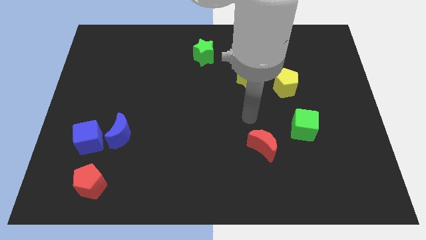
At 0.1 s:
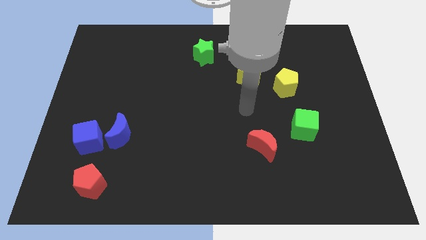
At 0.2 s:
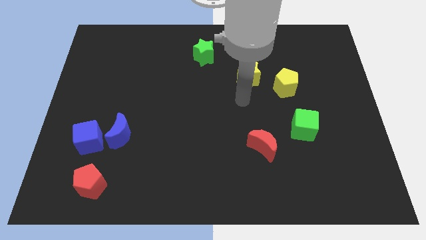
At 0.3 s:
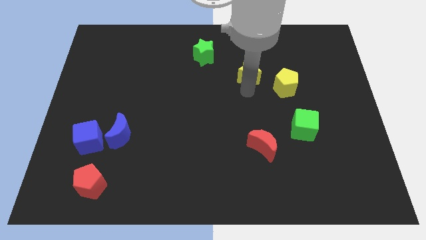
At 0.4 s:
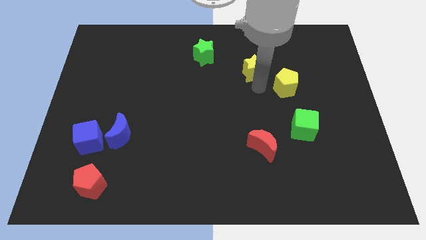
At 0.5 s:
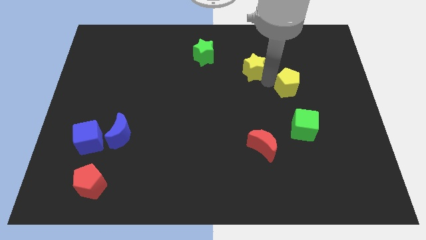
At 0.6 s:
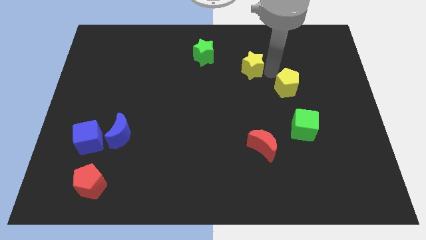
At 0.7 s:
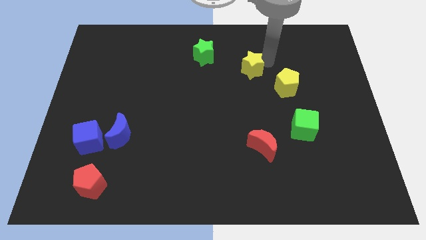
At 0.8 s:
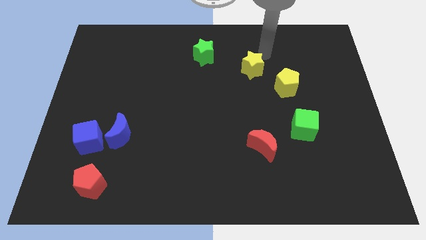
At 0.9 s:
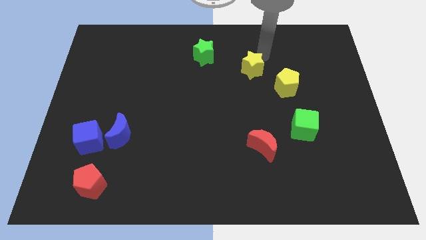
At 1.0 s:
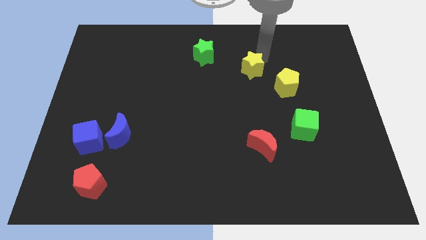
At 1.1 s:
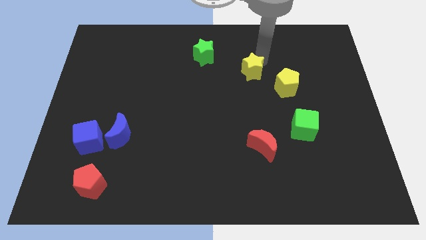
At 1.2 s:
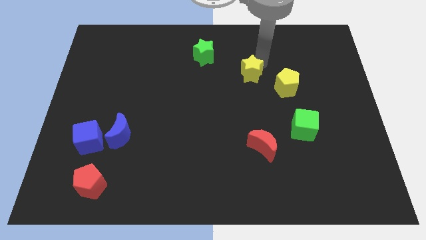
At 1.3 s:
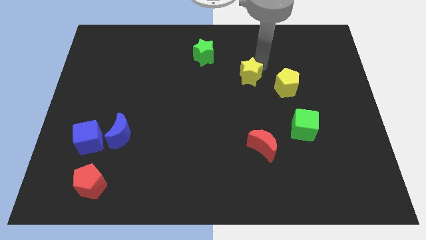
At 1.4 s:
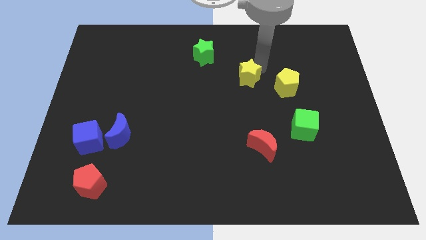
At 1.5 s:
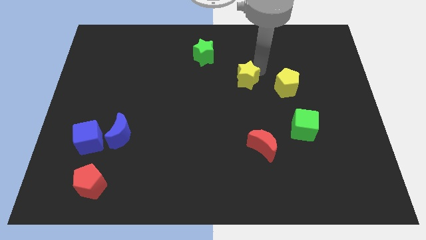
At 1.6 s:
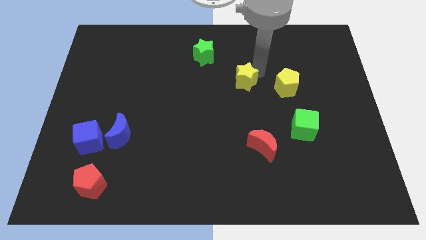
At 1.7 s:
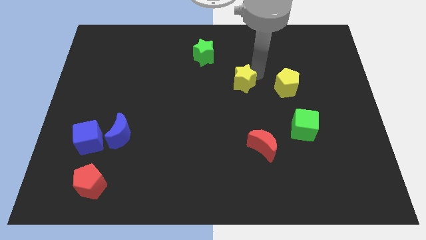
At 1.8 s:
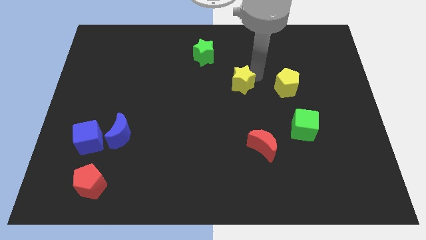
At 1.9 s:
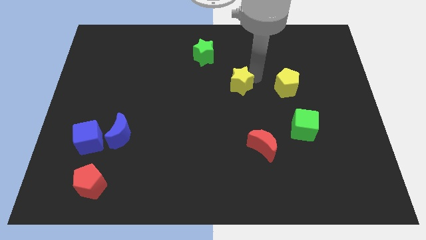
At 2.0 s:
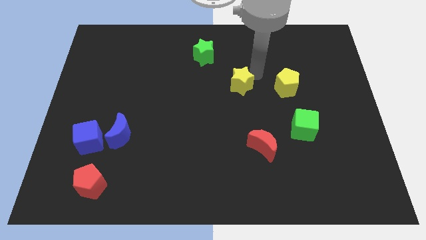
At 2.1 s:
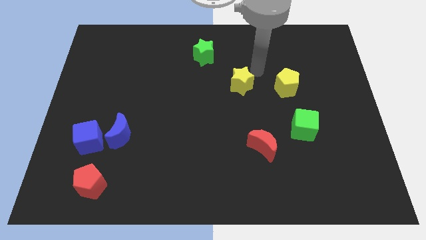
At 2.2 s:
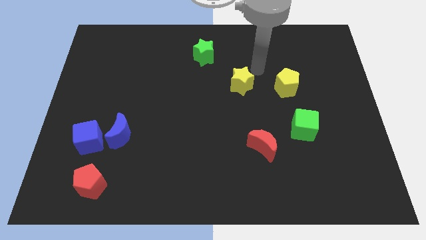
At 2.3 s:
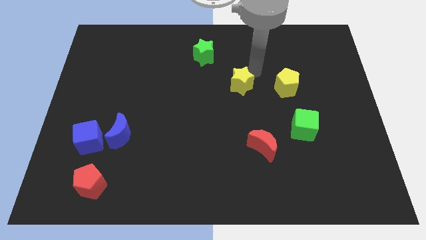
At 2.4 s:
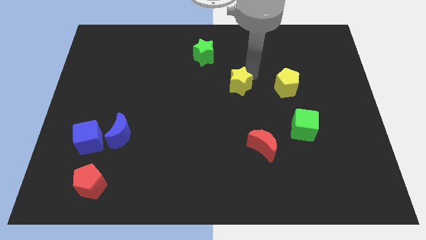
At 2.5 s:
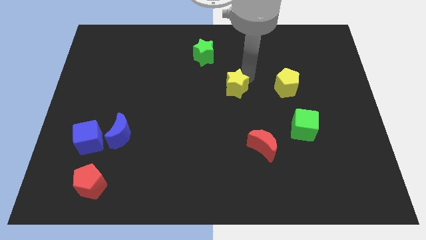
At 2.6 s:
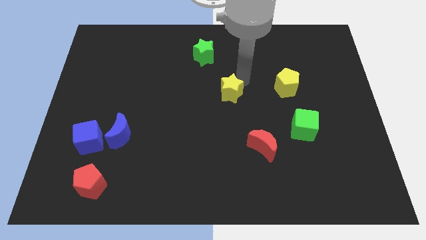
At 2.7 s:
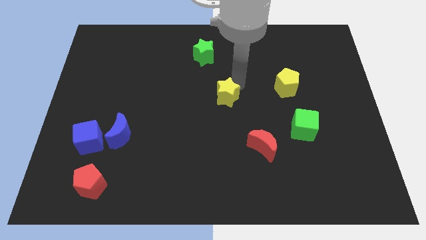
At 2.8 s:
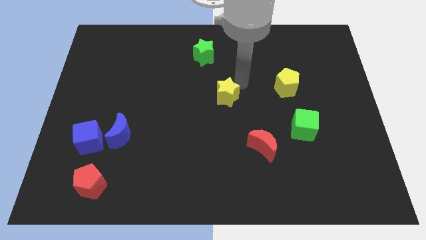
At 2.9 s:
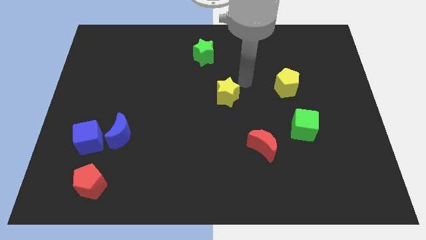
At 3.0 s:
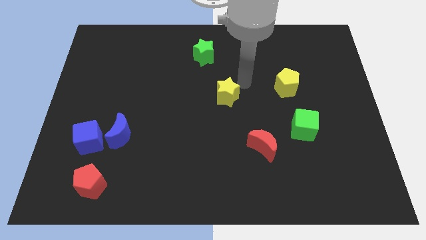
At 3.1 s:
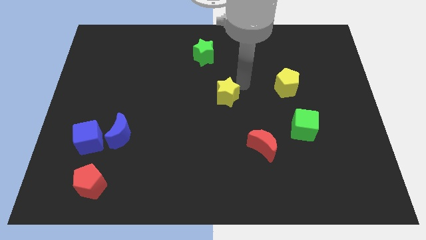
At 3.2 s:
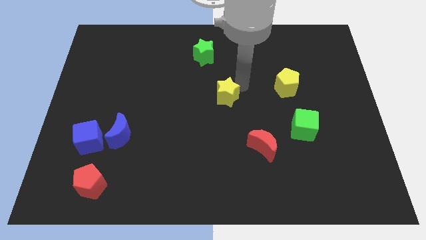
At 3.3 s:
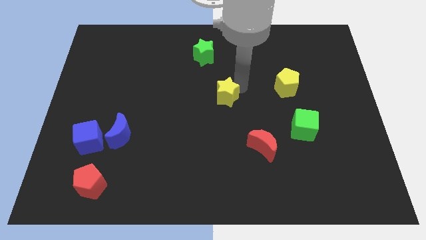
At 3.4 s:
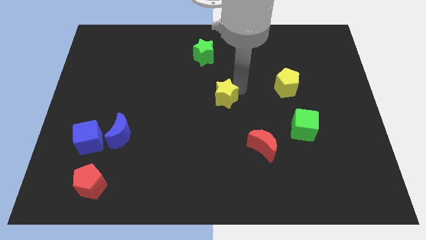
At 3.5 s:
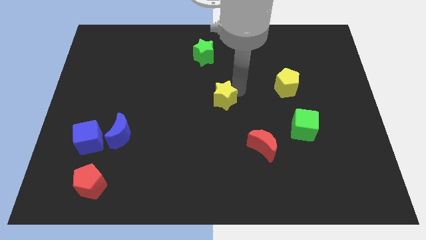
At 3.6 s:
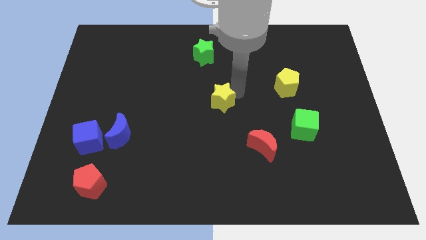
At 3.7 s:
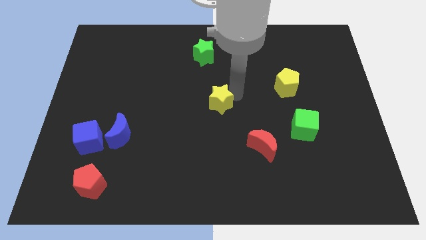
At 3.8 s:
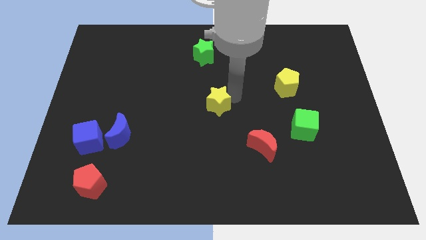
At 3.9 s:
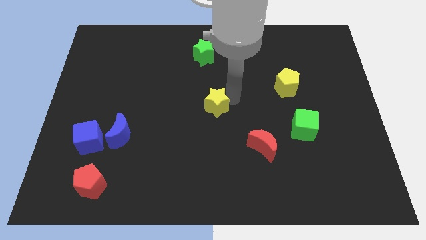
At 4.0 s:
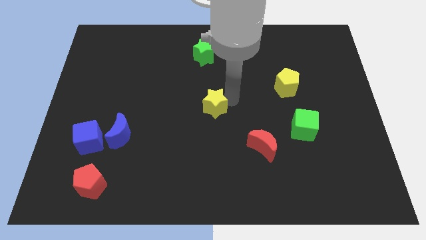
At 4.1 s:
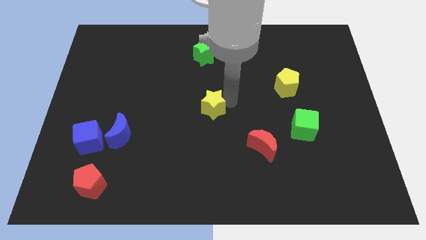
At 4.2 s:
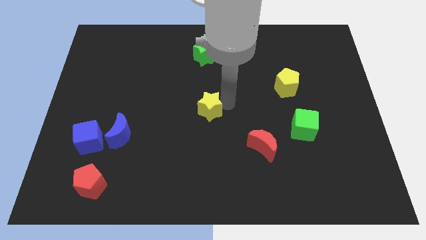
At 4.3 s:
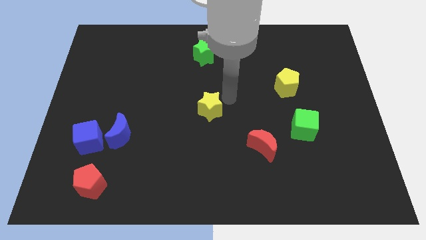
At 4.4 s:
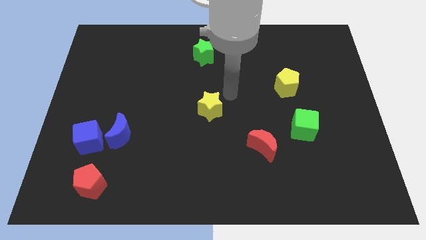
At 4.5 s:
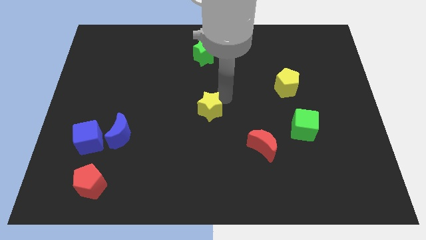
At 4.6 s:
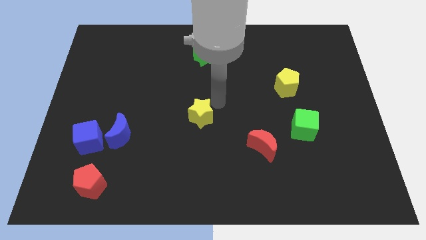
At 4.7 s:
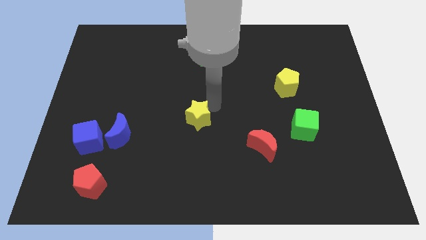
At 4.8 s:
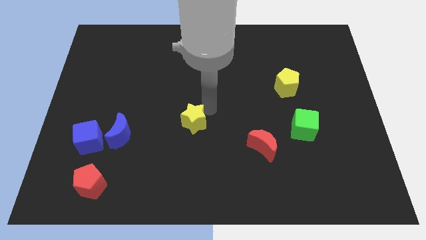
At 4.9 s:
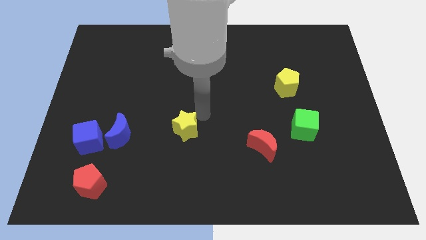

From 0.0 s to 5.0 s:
move the yellow star downwards and left diagonally

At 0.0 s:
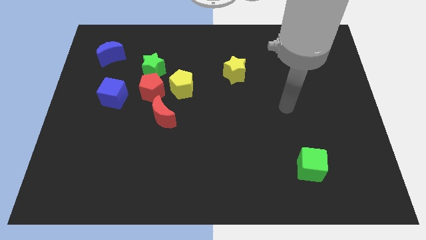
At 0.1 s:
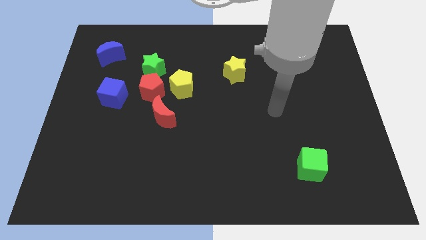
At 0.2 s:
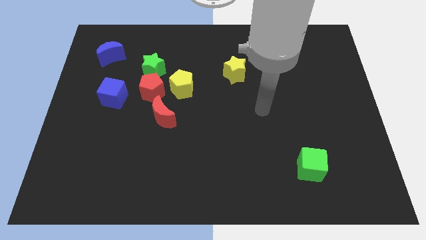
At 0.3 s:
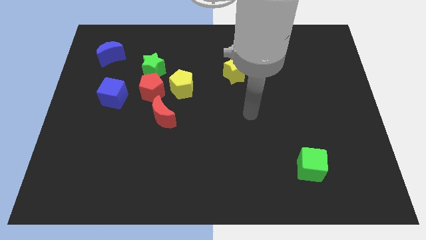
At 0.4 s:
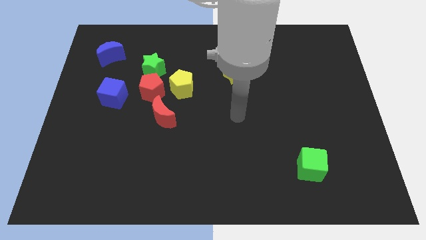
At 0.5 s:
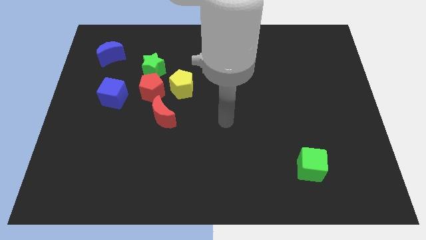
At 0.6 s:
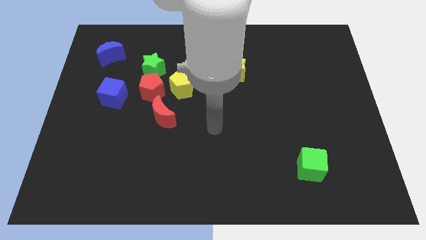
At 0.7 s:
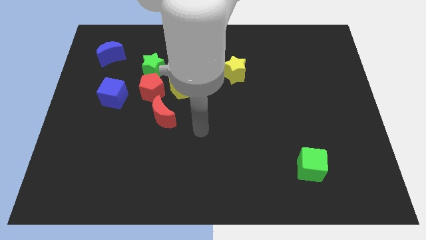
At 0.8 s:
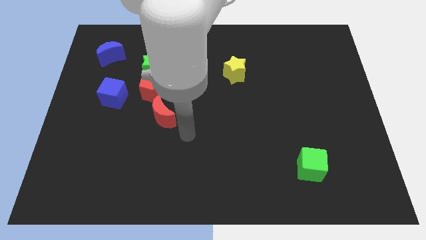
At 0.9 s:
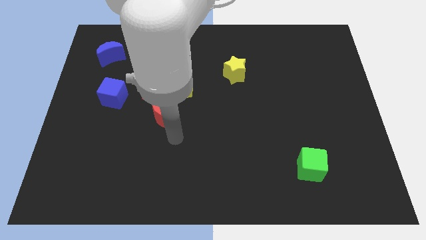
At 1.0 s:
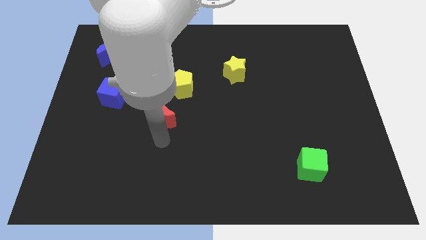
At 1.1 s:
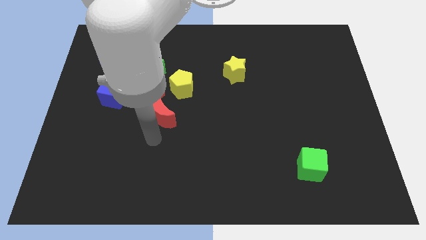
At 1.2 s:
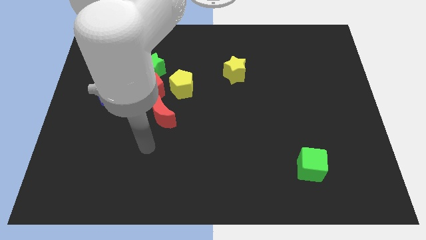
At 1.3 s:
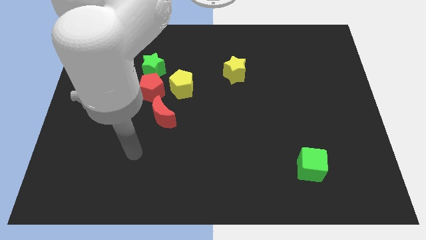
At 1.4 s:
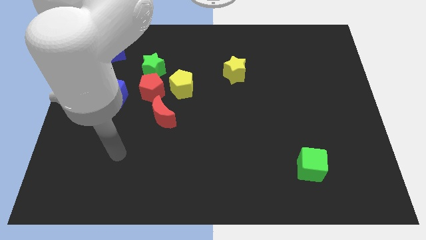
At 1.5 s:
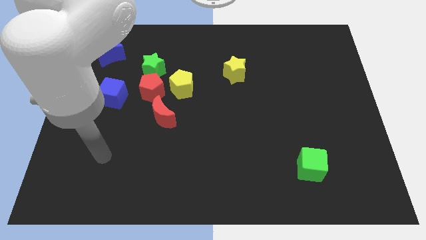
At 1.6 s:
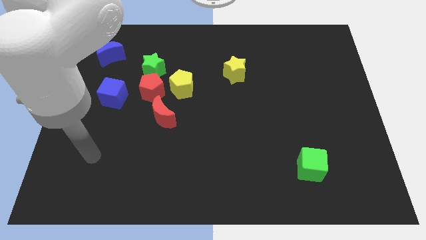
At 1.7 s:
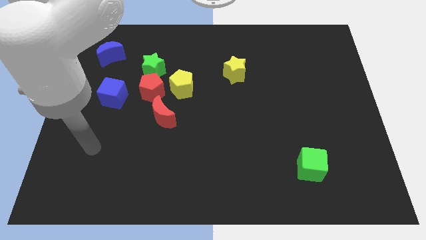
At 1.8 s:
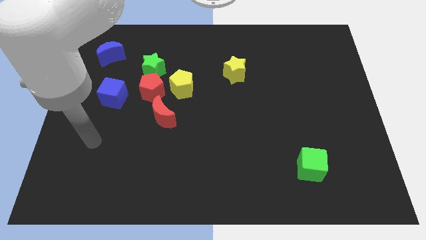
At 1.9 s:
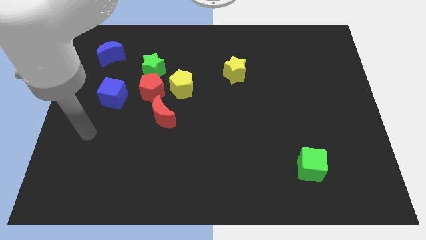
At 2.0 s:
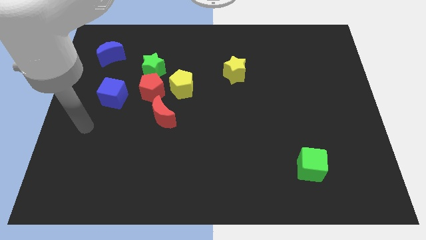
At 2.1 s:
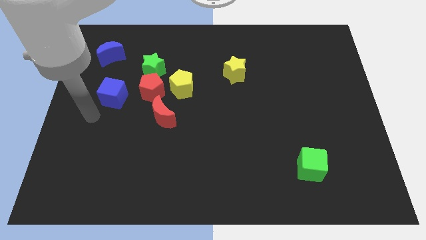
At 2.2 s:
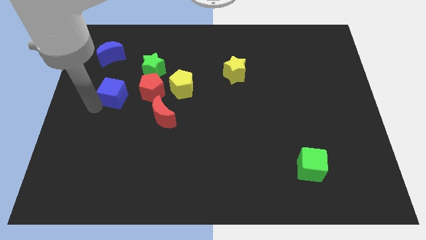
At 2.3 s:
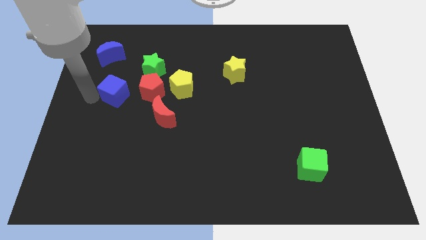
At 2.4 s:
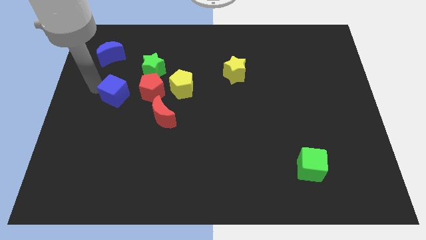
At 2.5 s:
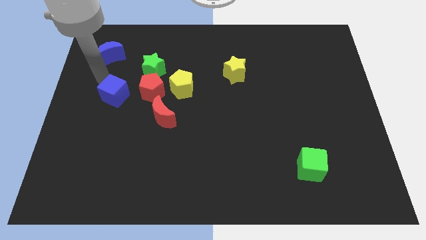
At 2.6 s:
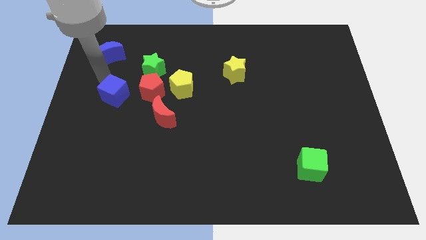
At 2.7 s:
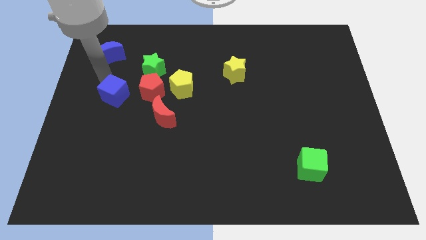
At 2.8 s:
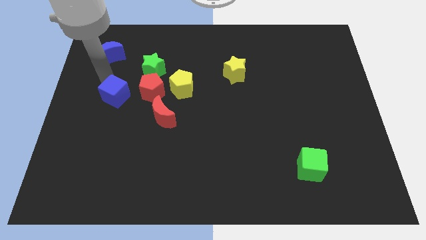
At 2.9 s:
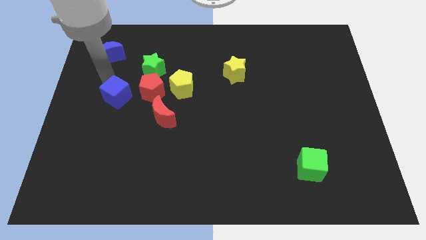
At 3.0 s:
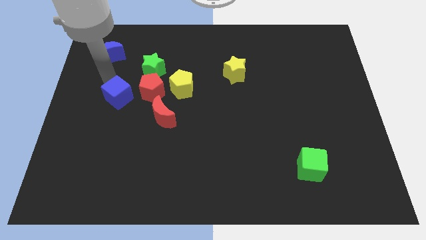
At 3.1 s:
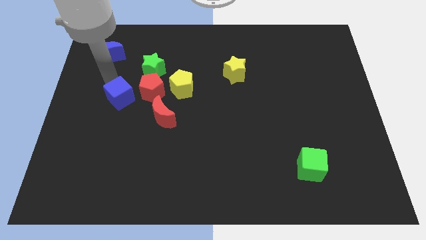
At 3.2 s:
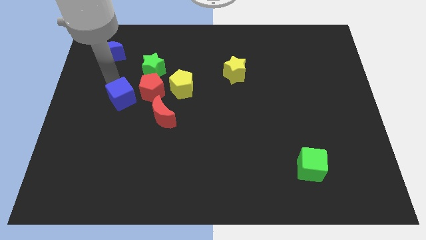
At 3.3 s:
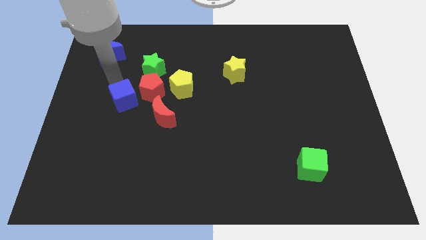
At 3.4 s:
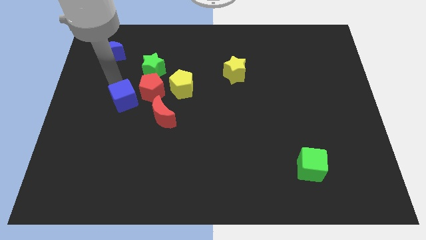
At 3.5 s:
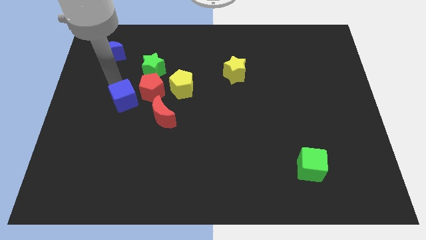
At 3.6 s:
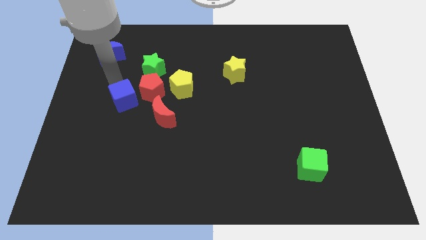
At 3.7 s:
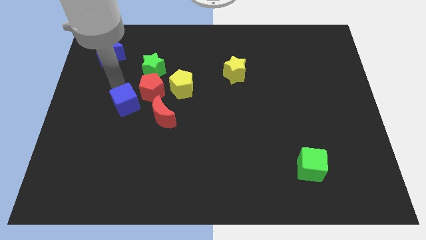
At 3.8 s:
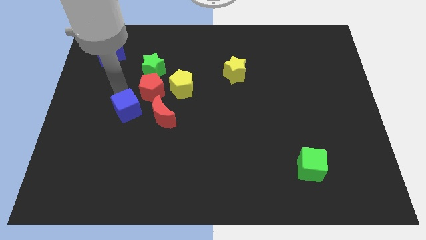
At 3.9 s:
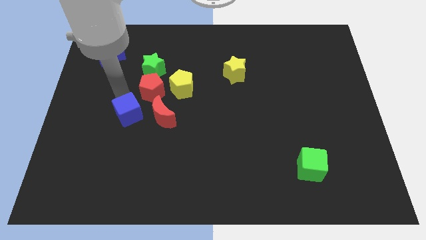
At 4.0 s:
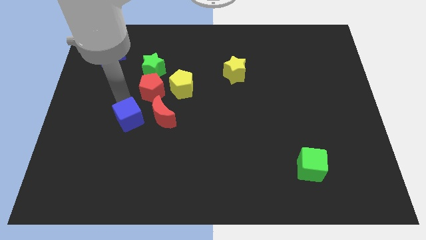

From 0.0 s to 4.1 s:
move the blue cube slightly downwards and to the right
